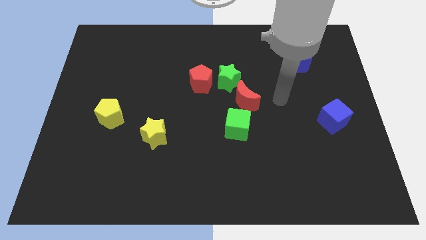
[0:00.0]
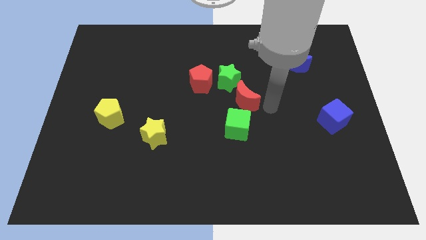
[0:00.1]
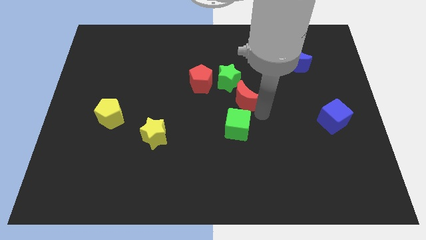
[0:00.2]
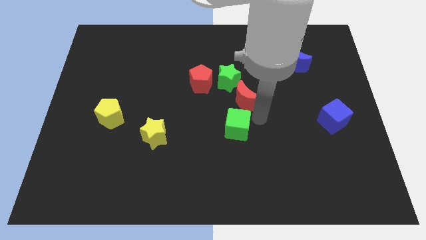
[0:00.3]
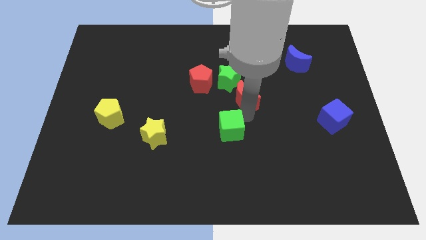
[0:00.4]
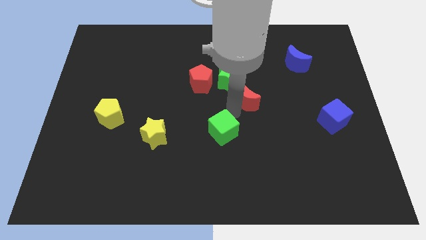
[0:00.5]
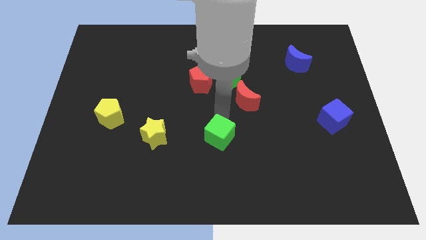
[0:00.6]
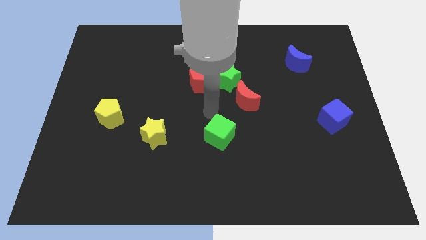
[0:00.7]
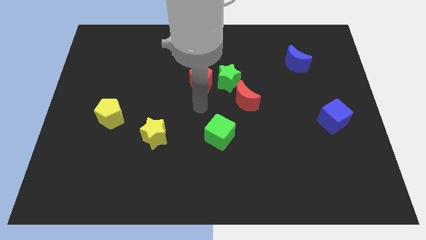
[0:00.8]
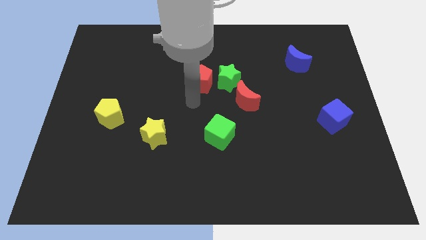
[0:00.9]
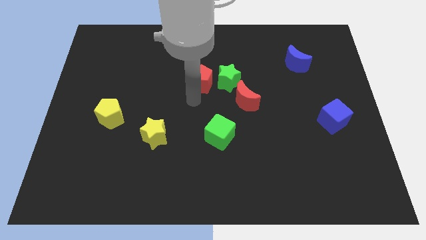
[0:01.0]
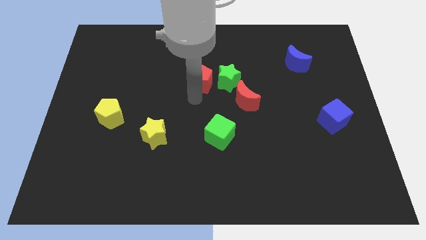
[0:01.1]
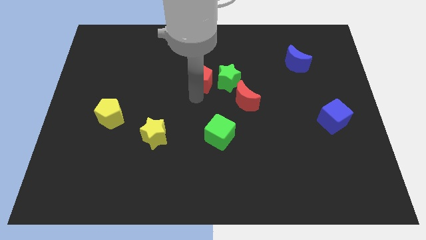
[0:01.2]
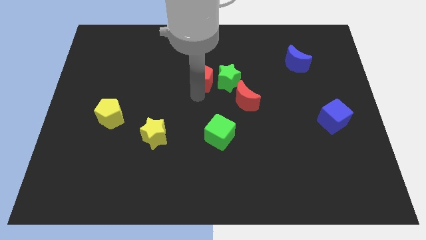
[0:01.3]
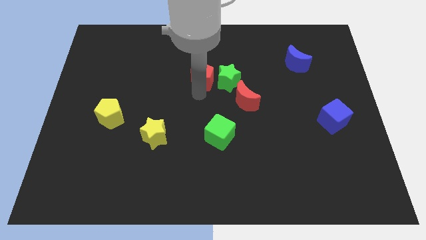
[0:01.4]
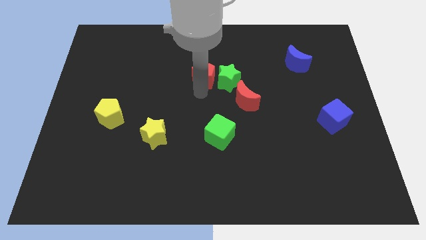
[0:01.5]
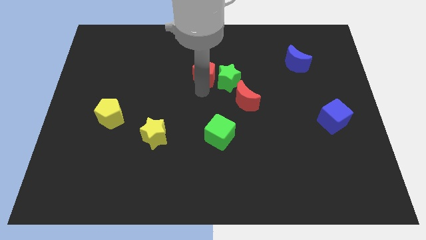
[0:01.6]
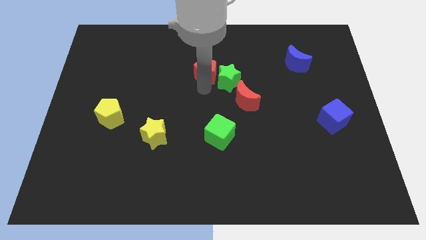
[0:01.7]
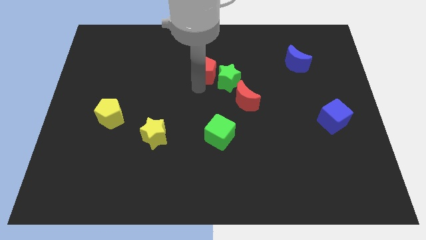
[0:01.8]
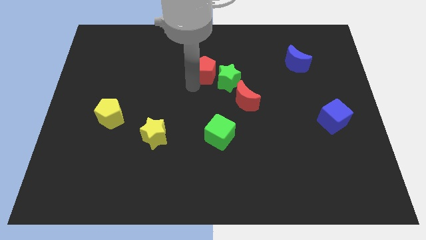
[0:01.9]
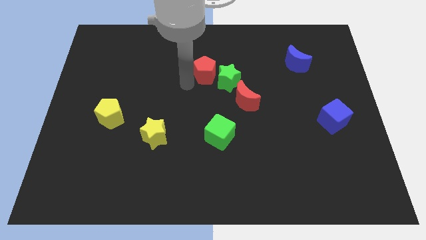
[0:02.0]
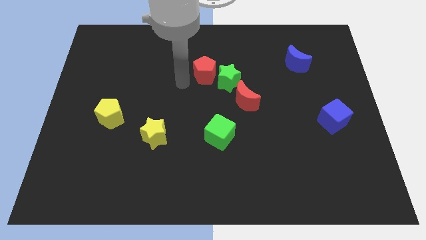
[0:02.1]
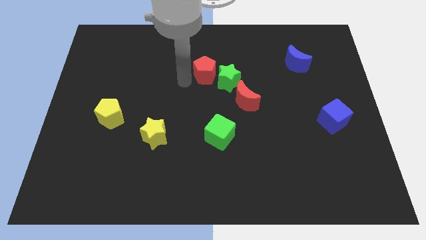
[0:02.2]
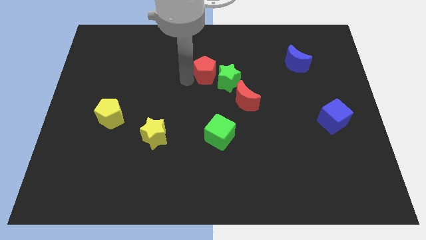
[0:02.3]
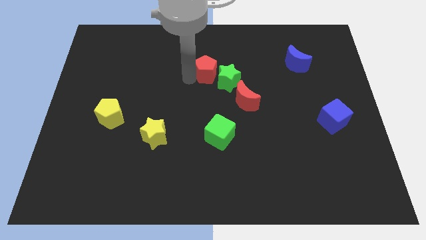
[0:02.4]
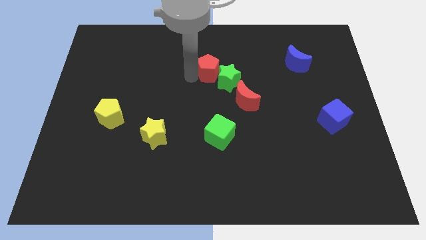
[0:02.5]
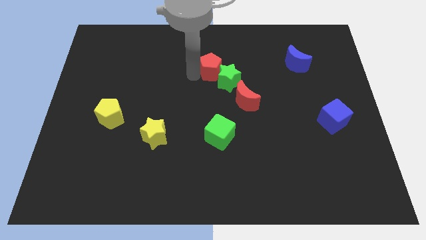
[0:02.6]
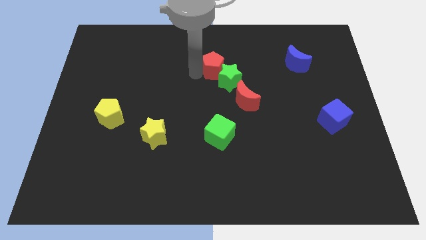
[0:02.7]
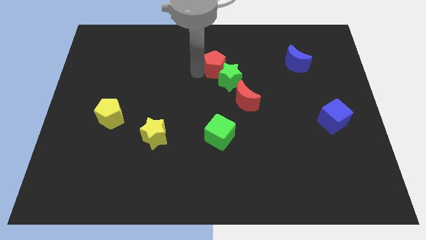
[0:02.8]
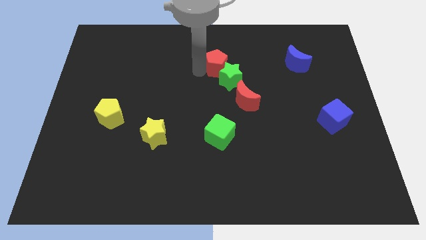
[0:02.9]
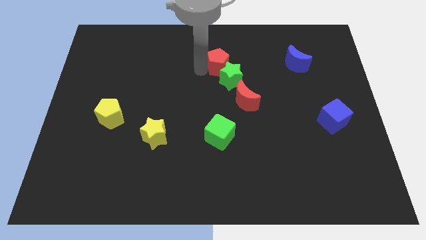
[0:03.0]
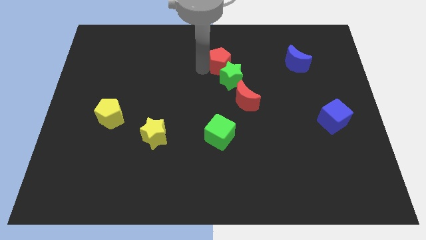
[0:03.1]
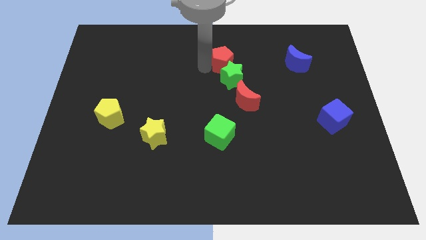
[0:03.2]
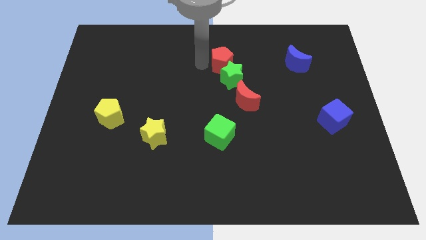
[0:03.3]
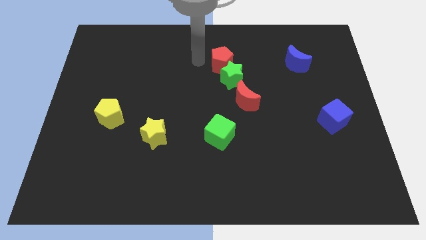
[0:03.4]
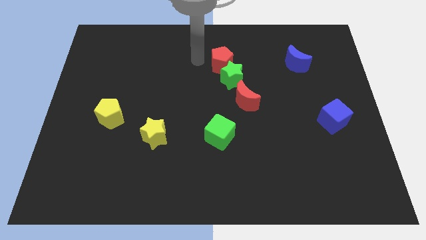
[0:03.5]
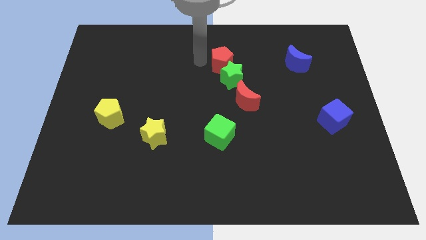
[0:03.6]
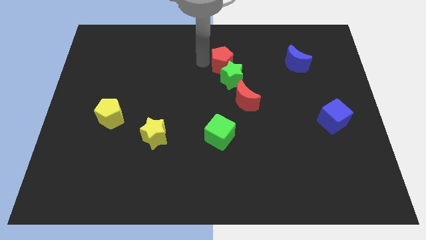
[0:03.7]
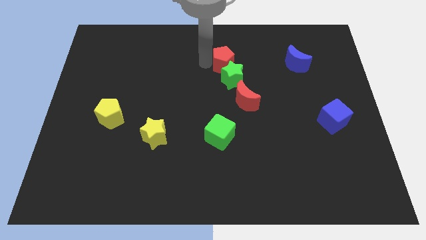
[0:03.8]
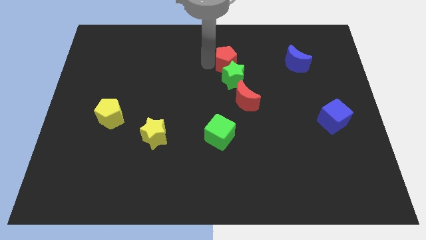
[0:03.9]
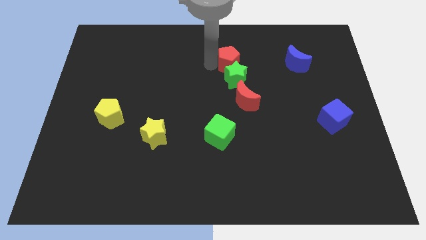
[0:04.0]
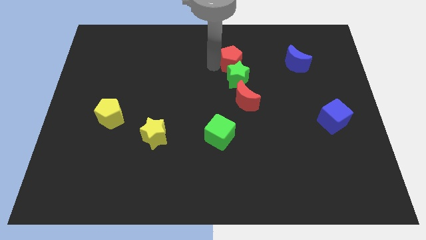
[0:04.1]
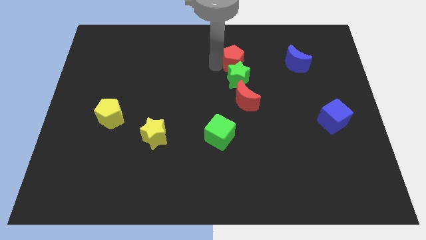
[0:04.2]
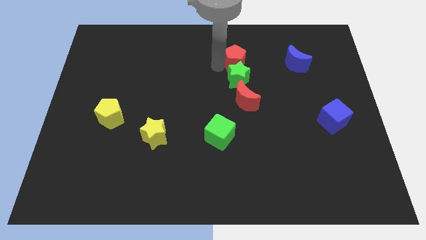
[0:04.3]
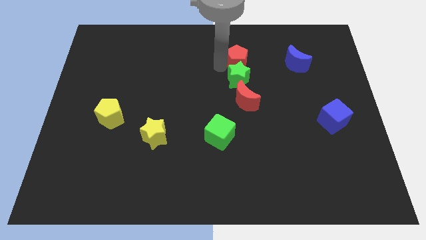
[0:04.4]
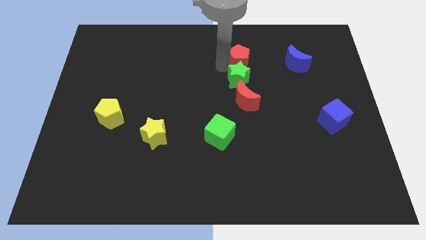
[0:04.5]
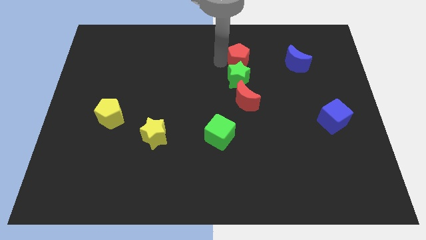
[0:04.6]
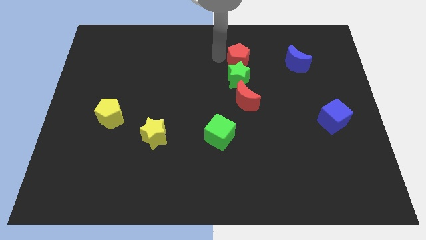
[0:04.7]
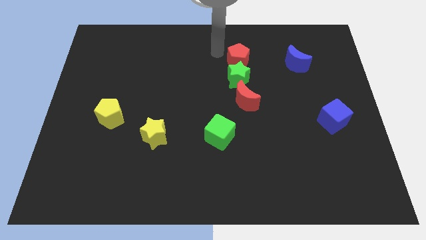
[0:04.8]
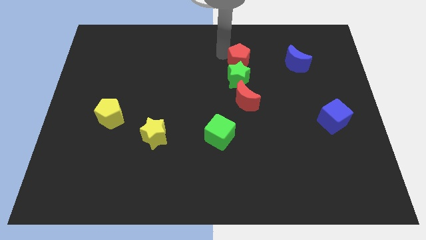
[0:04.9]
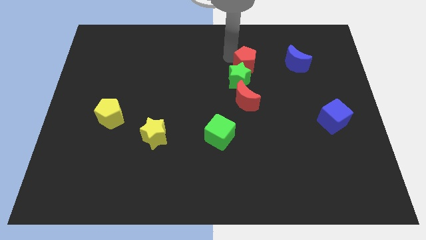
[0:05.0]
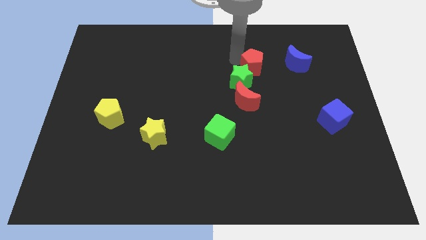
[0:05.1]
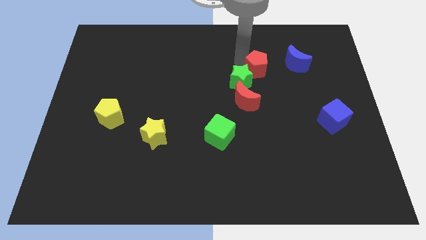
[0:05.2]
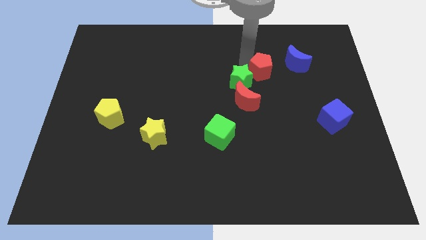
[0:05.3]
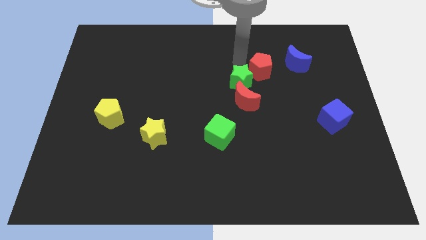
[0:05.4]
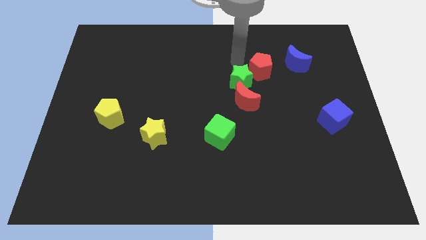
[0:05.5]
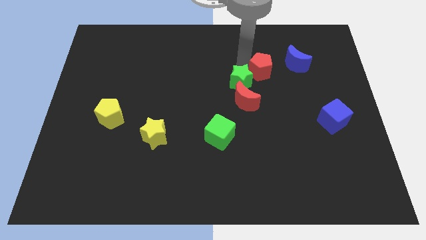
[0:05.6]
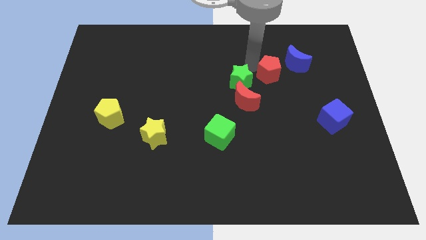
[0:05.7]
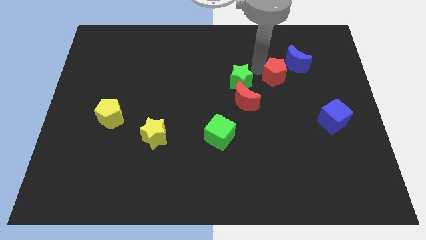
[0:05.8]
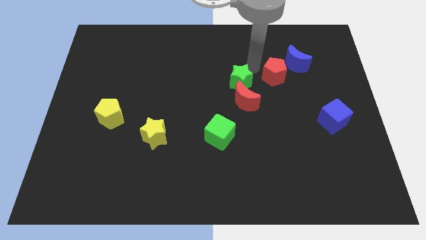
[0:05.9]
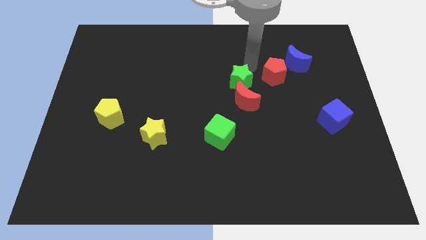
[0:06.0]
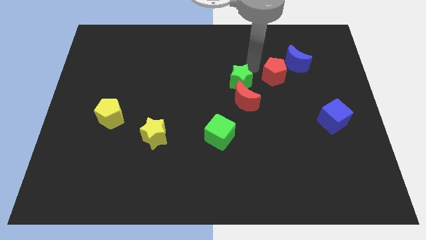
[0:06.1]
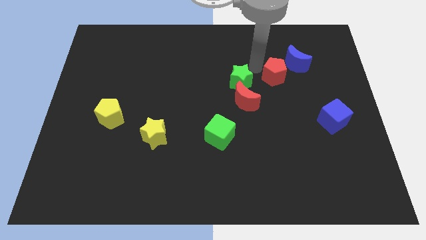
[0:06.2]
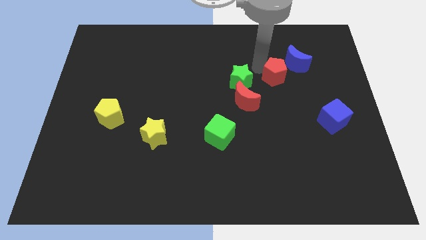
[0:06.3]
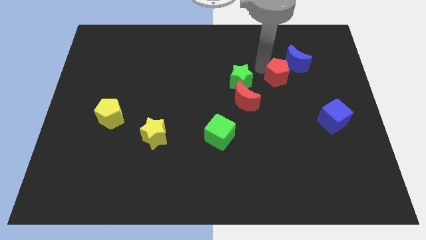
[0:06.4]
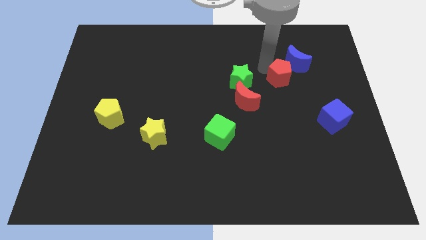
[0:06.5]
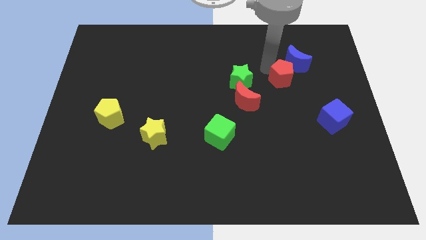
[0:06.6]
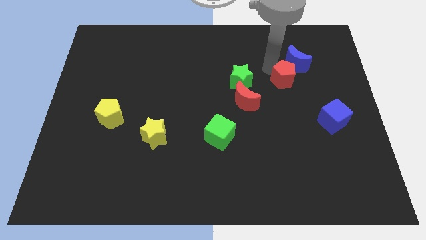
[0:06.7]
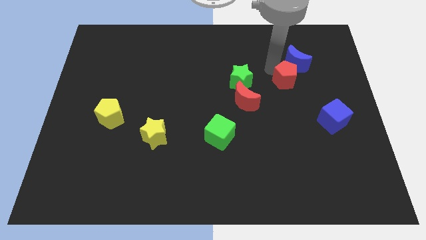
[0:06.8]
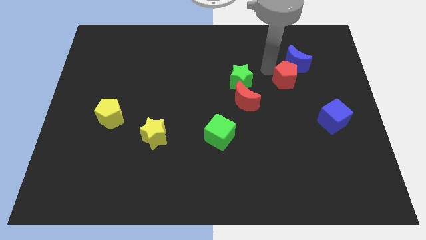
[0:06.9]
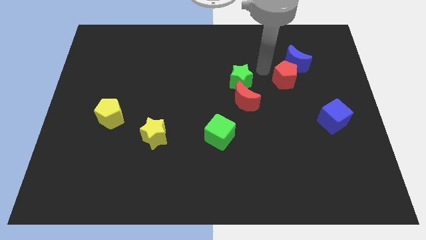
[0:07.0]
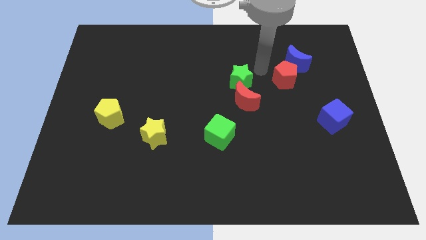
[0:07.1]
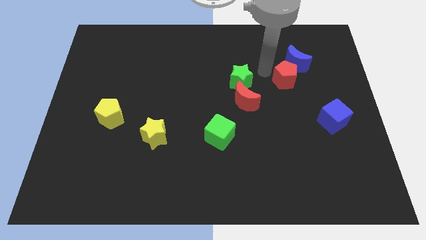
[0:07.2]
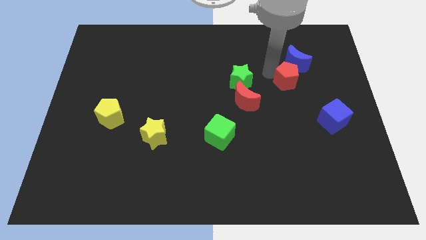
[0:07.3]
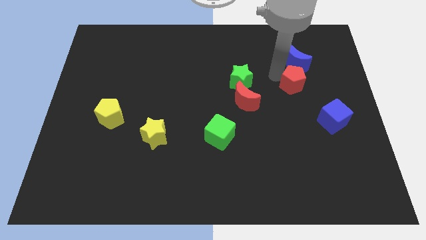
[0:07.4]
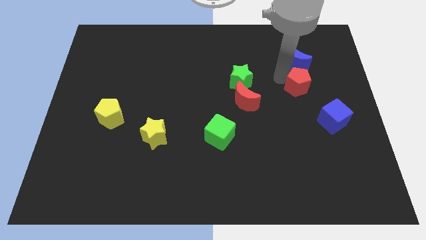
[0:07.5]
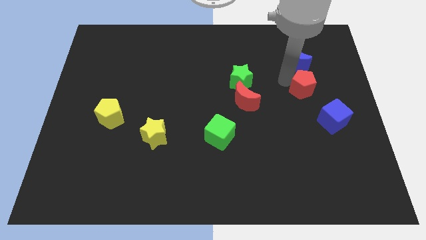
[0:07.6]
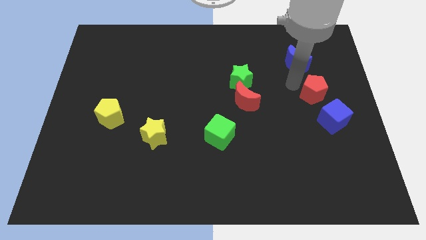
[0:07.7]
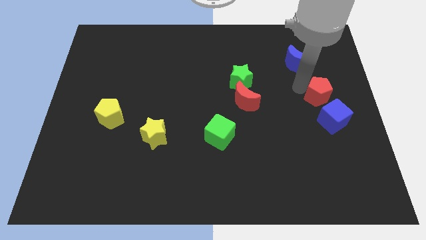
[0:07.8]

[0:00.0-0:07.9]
slide the red pentagon to the center right
